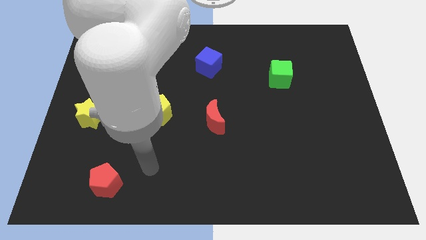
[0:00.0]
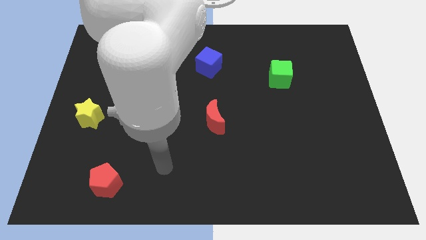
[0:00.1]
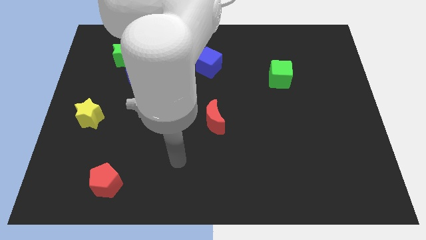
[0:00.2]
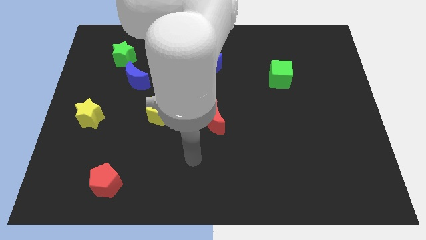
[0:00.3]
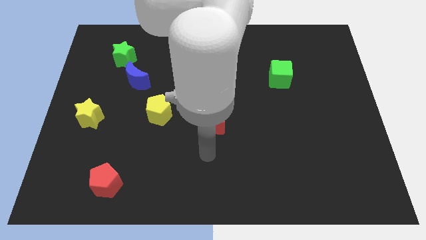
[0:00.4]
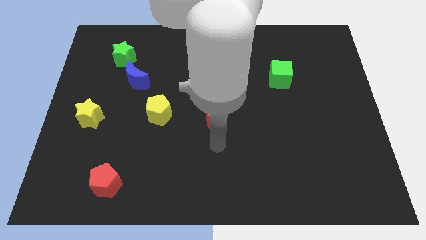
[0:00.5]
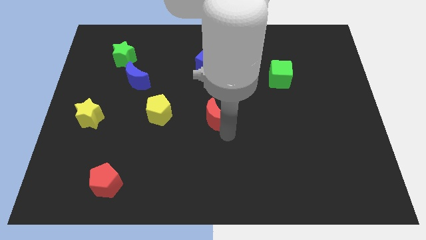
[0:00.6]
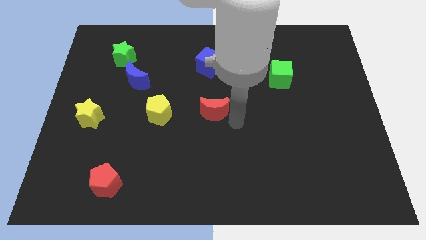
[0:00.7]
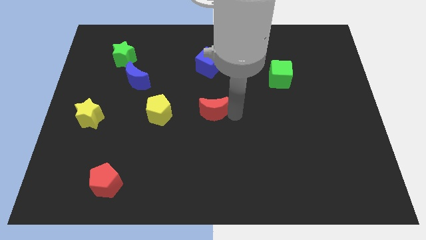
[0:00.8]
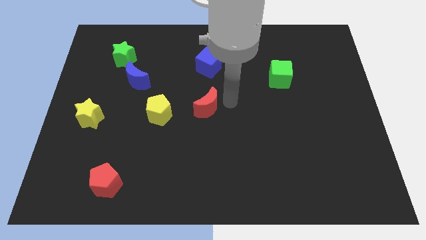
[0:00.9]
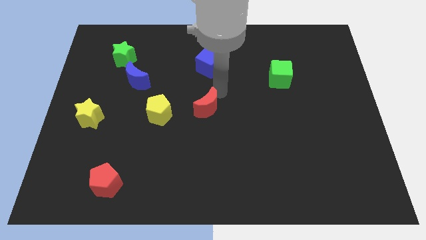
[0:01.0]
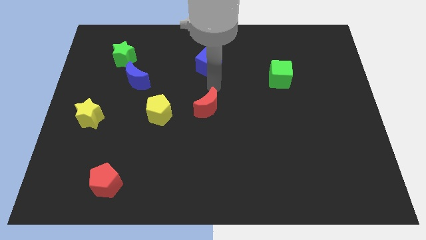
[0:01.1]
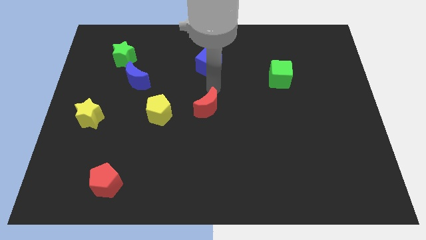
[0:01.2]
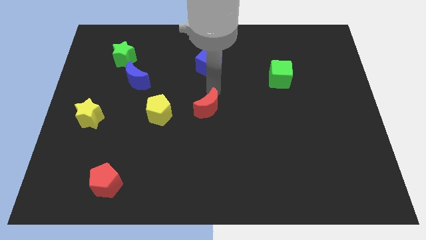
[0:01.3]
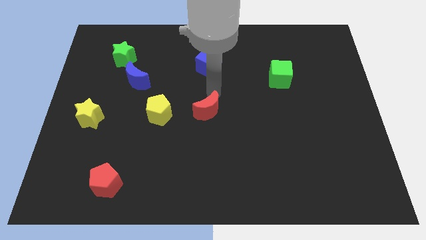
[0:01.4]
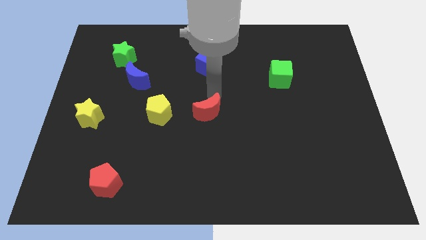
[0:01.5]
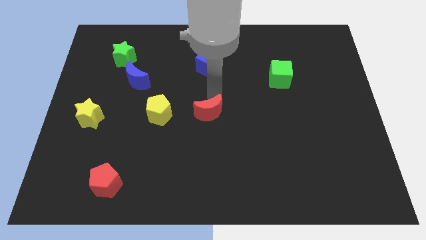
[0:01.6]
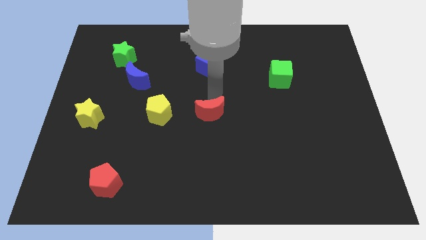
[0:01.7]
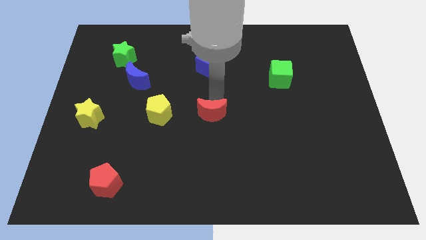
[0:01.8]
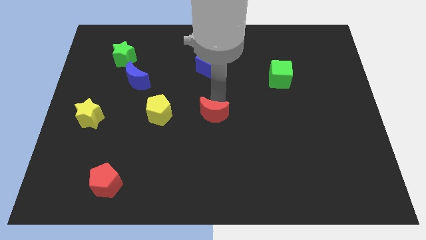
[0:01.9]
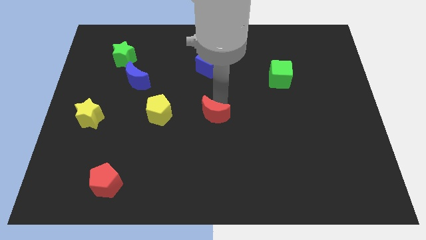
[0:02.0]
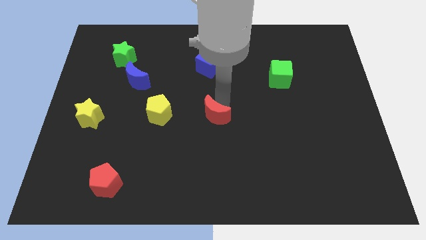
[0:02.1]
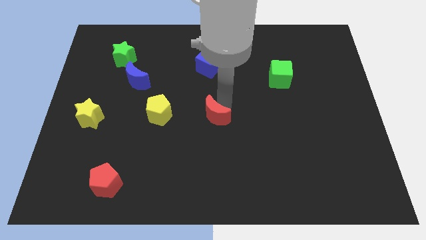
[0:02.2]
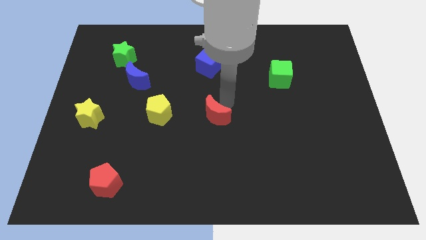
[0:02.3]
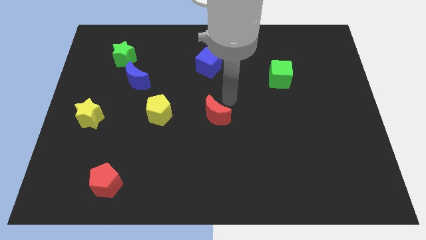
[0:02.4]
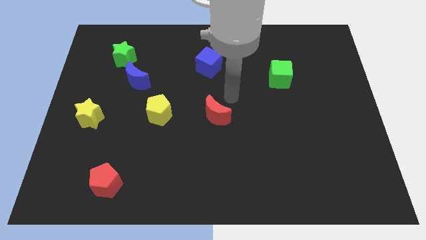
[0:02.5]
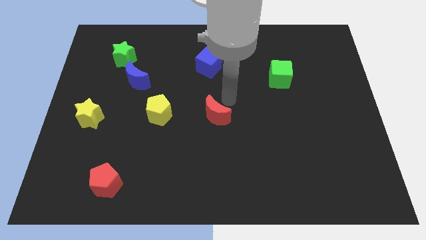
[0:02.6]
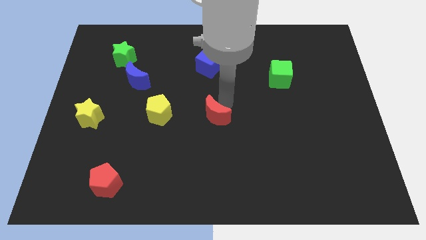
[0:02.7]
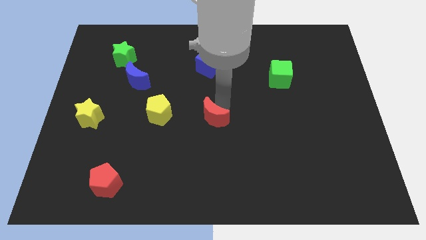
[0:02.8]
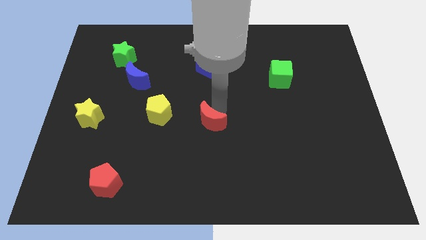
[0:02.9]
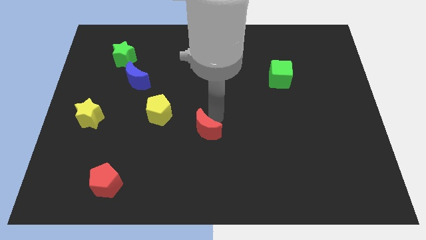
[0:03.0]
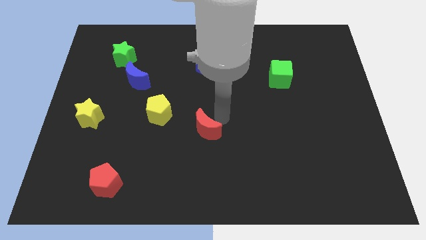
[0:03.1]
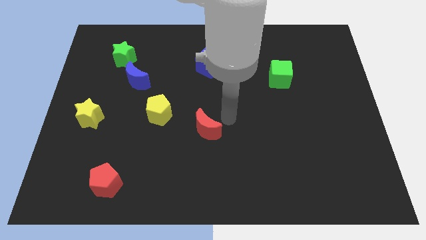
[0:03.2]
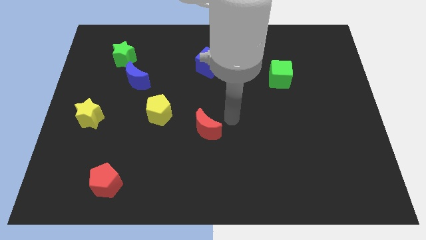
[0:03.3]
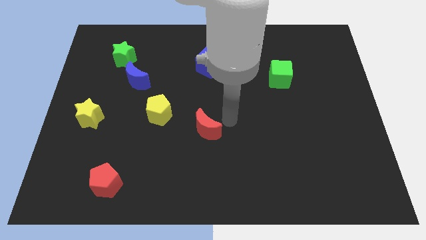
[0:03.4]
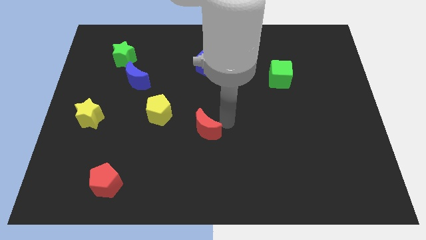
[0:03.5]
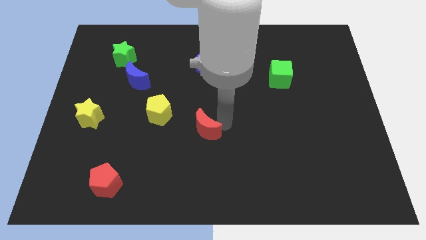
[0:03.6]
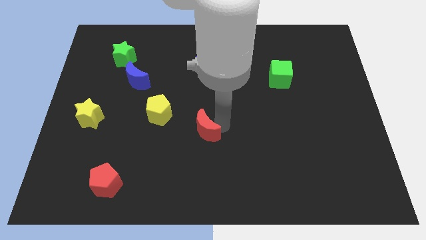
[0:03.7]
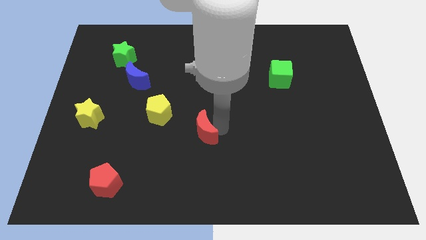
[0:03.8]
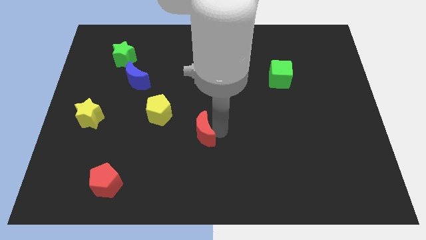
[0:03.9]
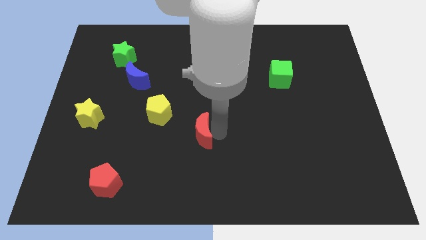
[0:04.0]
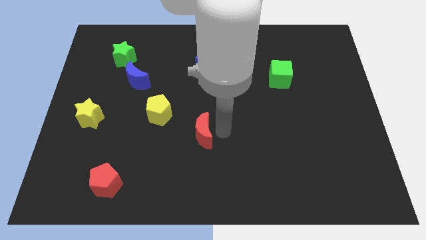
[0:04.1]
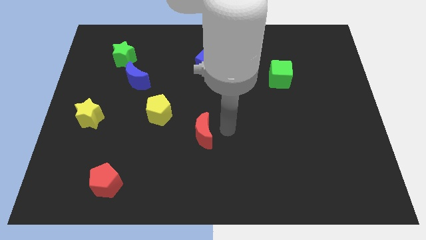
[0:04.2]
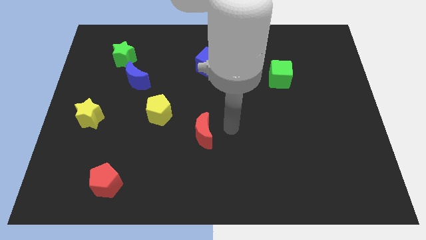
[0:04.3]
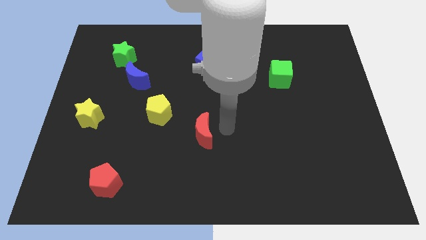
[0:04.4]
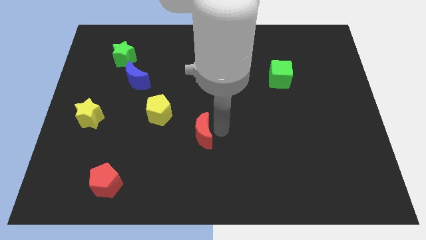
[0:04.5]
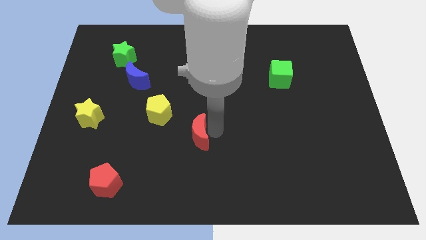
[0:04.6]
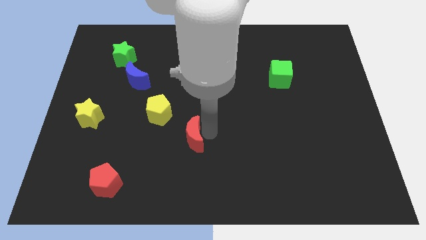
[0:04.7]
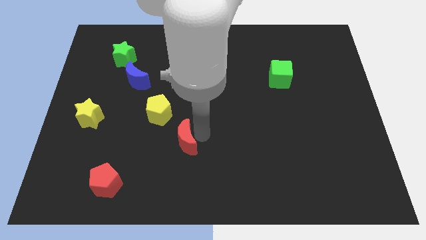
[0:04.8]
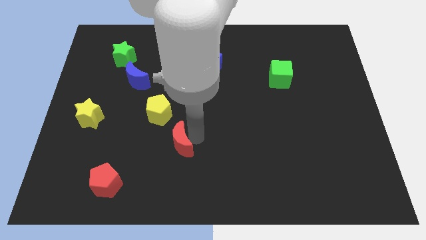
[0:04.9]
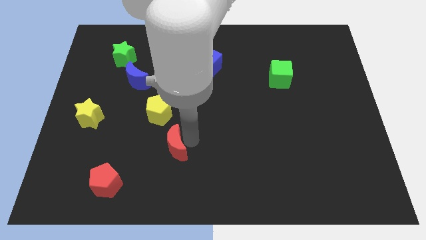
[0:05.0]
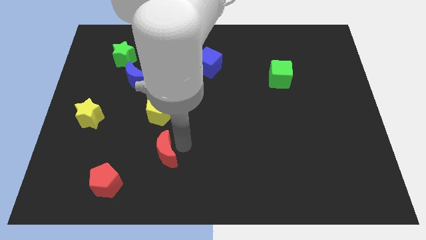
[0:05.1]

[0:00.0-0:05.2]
push the red moon left a little

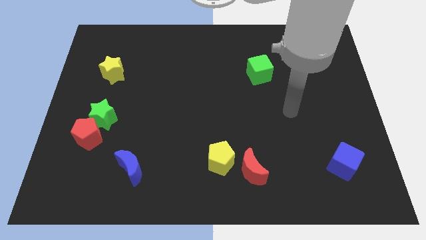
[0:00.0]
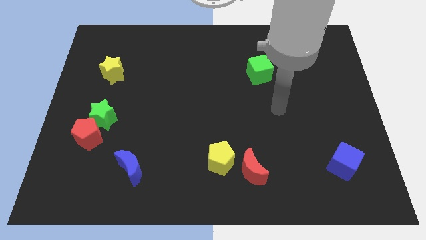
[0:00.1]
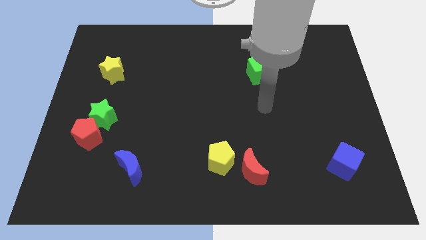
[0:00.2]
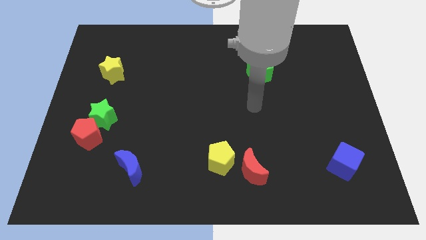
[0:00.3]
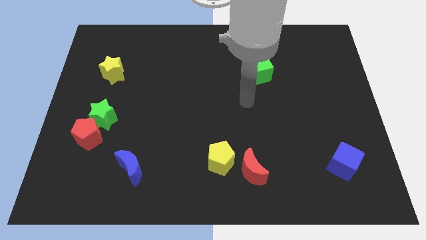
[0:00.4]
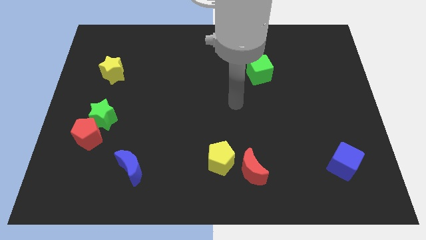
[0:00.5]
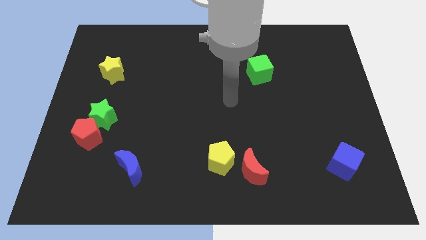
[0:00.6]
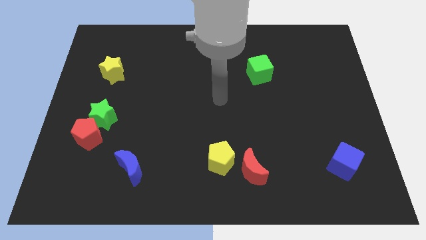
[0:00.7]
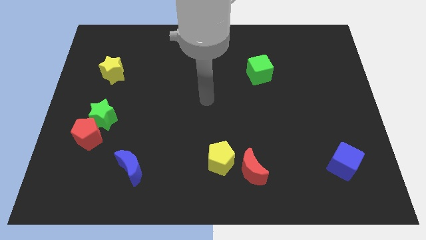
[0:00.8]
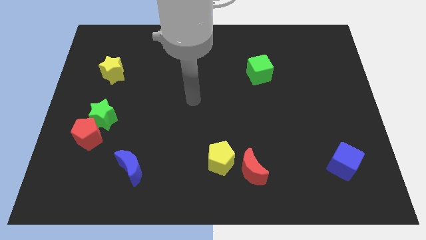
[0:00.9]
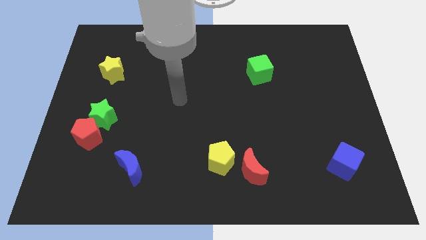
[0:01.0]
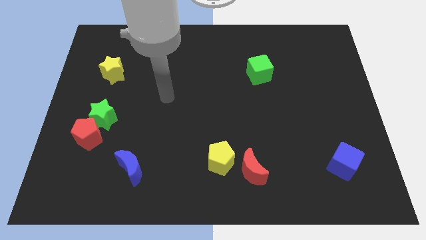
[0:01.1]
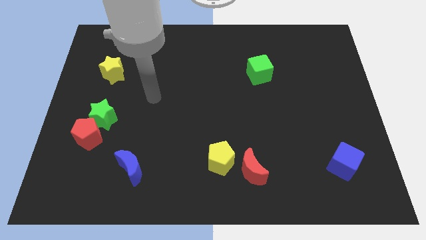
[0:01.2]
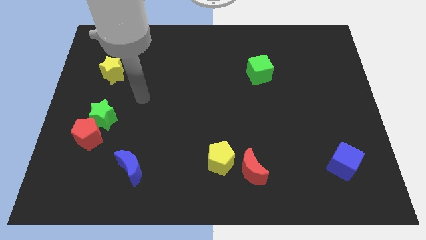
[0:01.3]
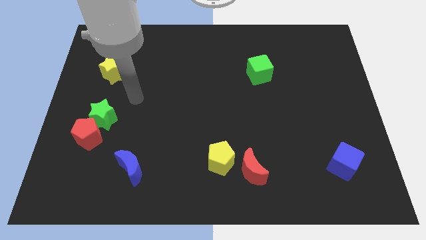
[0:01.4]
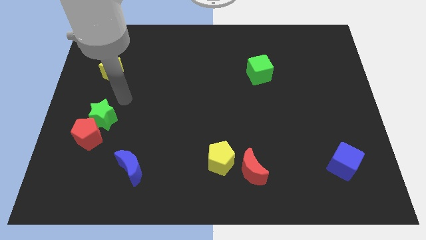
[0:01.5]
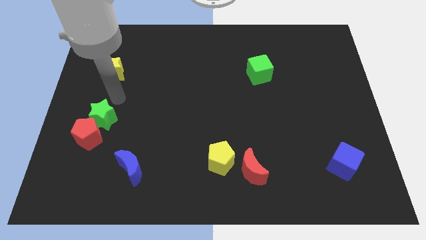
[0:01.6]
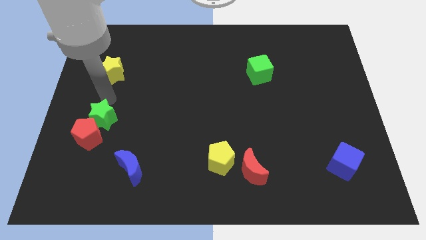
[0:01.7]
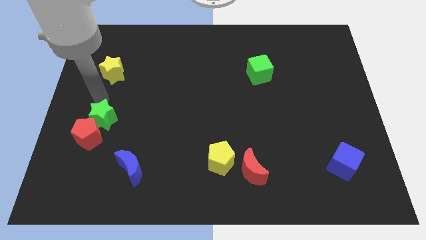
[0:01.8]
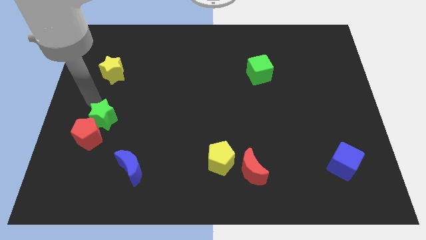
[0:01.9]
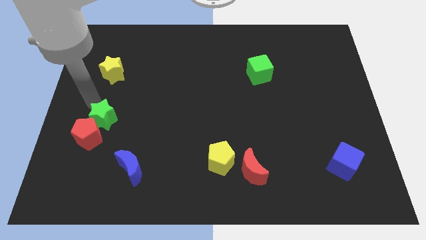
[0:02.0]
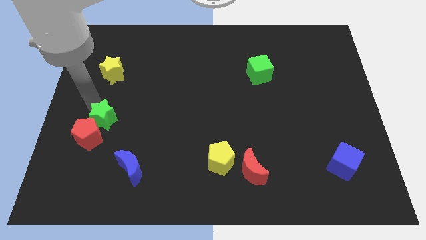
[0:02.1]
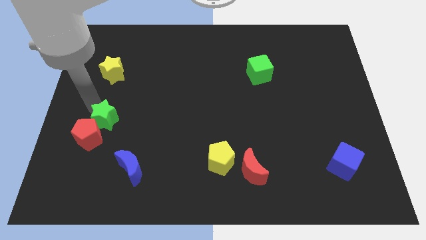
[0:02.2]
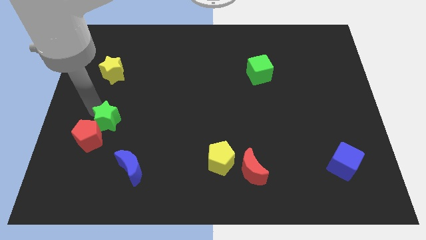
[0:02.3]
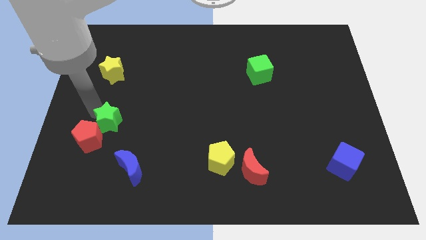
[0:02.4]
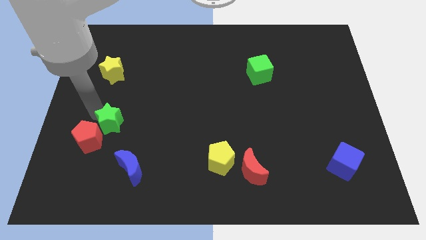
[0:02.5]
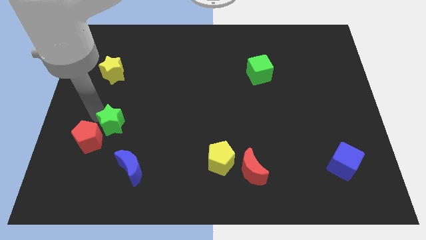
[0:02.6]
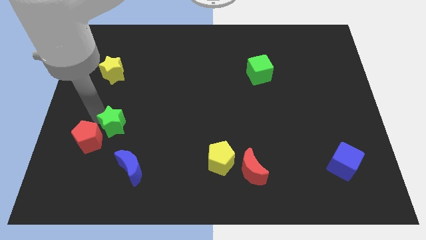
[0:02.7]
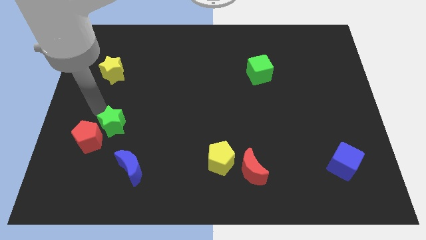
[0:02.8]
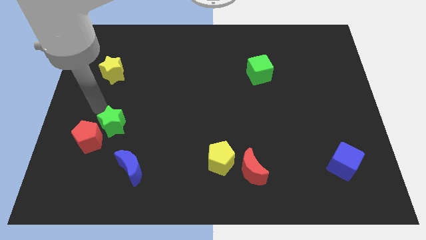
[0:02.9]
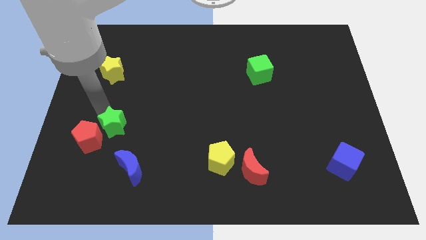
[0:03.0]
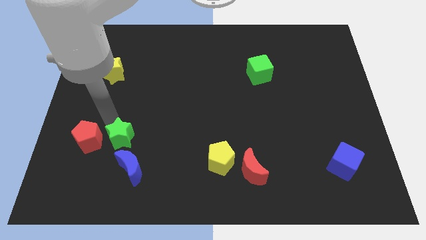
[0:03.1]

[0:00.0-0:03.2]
push the green star a bit down and to the right
